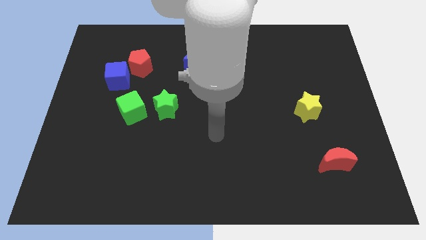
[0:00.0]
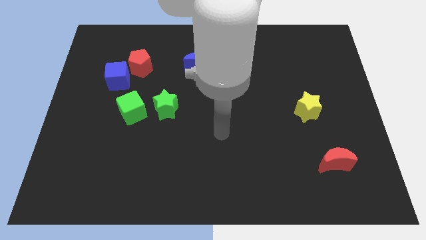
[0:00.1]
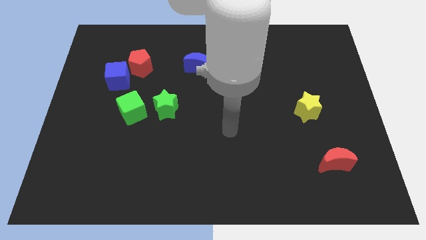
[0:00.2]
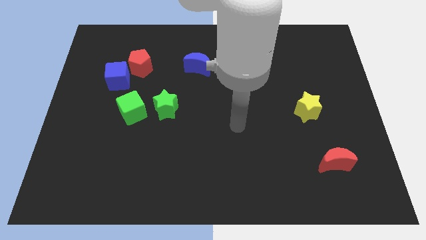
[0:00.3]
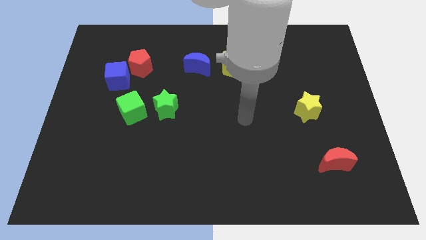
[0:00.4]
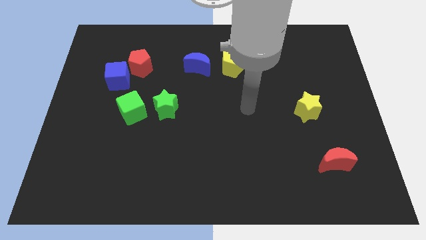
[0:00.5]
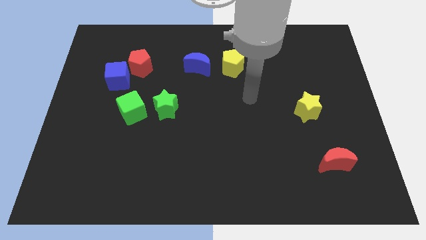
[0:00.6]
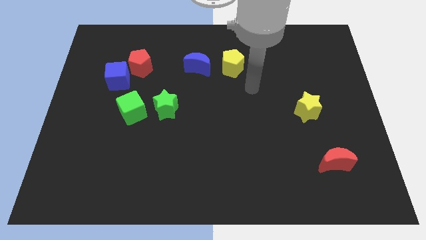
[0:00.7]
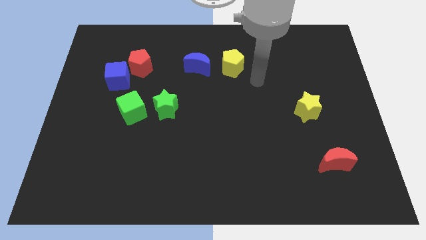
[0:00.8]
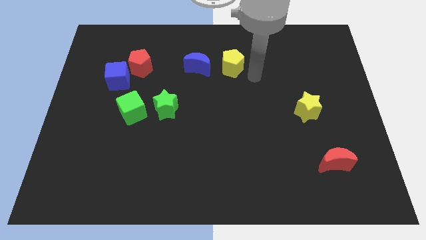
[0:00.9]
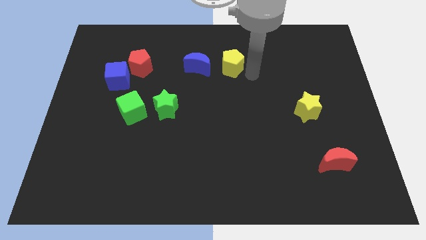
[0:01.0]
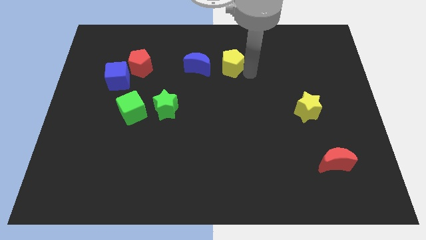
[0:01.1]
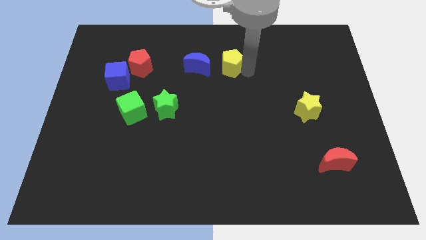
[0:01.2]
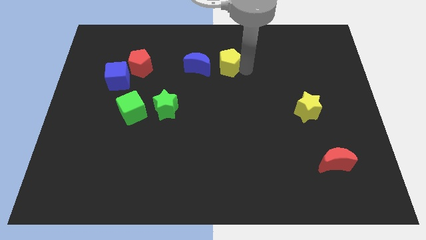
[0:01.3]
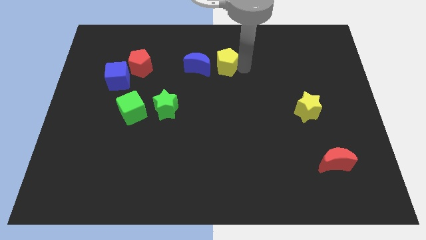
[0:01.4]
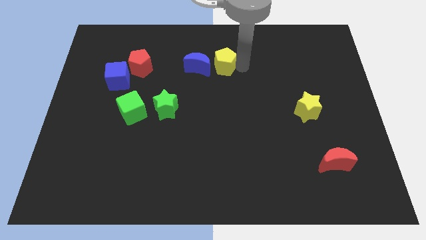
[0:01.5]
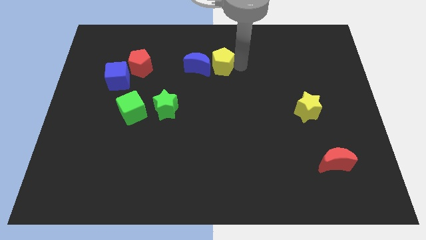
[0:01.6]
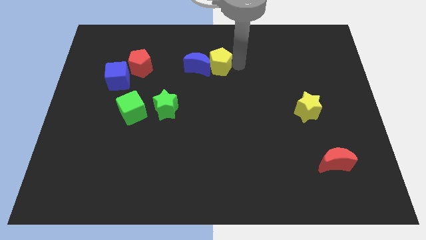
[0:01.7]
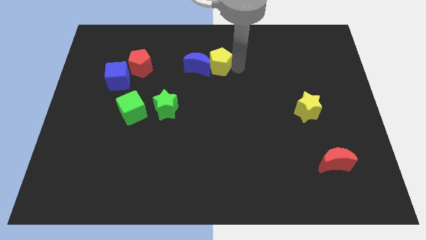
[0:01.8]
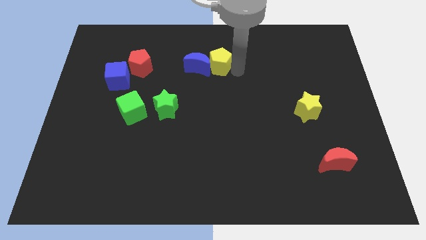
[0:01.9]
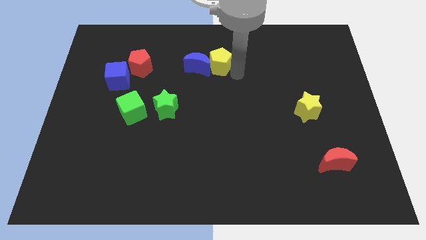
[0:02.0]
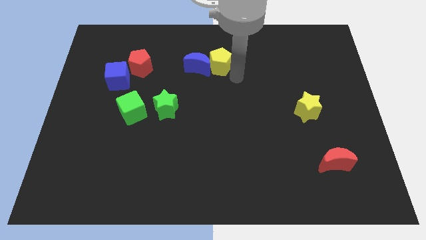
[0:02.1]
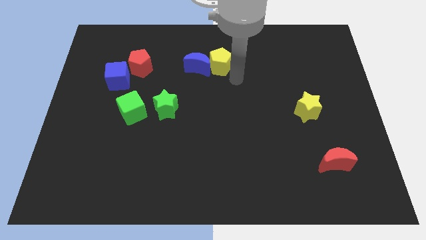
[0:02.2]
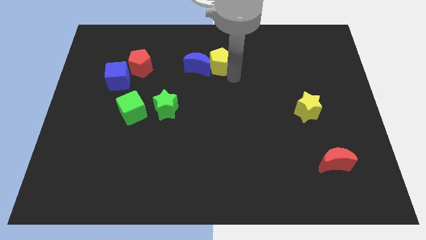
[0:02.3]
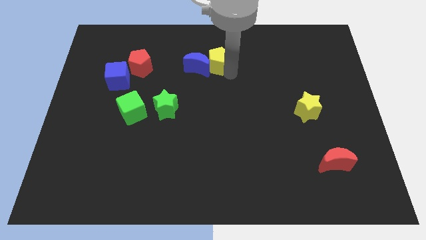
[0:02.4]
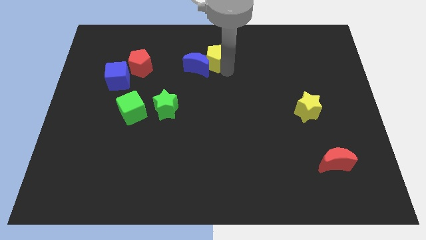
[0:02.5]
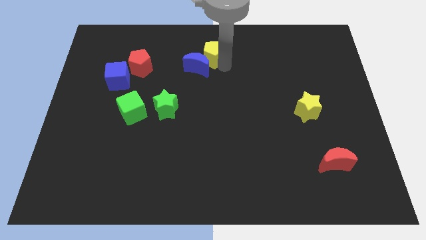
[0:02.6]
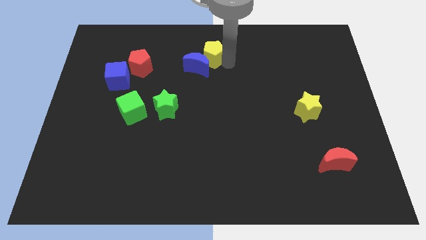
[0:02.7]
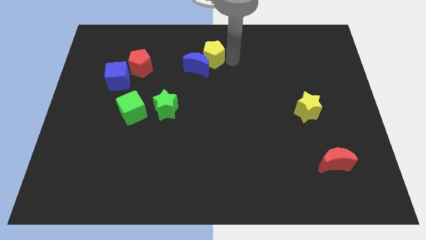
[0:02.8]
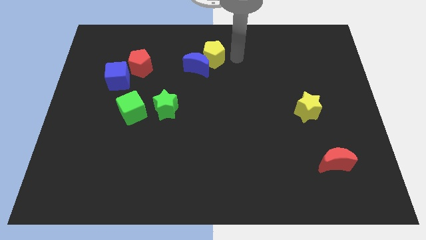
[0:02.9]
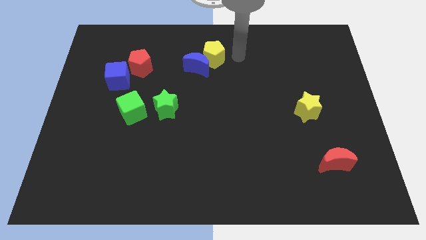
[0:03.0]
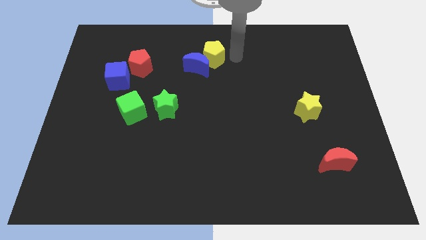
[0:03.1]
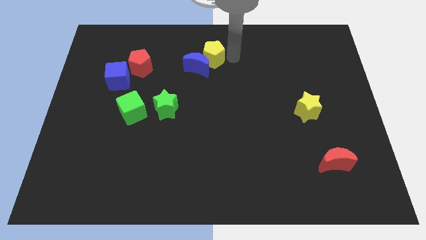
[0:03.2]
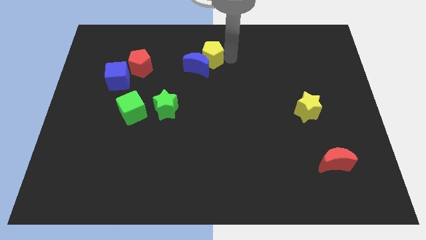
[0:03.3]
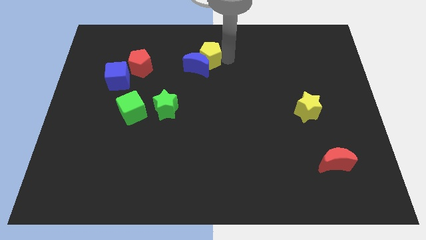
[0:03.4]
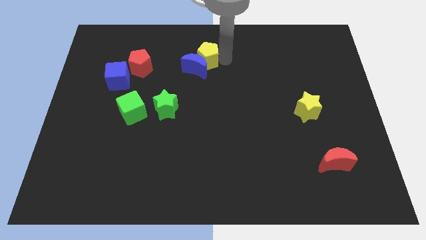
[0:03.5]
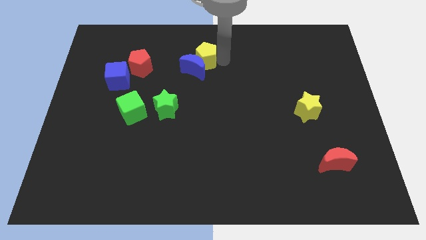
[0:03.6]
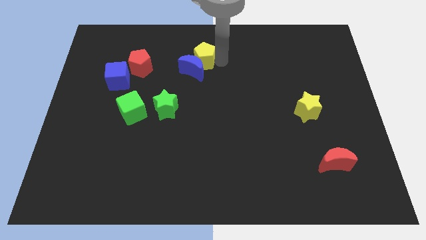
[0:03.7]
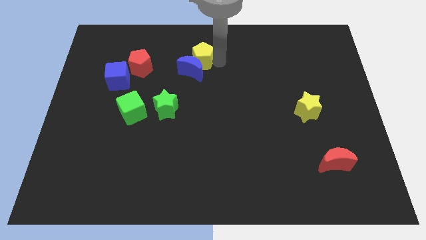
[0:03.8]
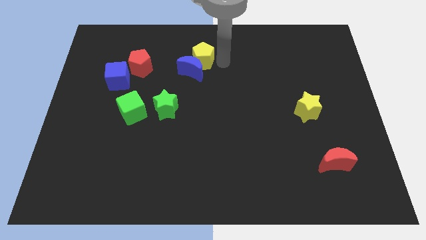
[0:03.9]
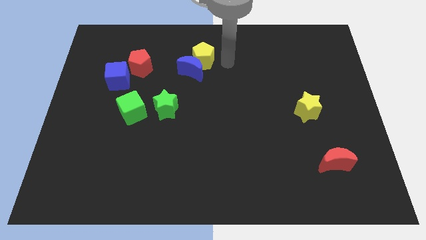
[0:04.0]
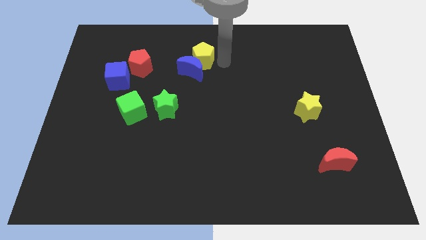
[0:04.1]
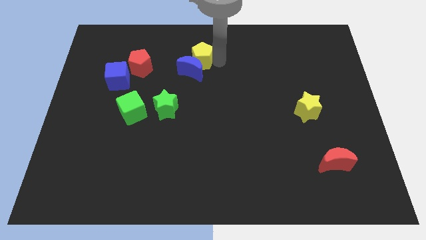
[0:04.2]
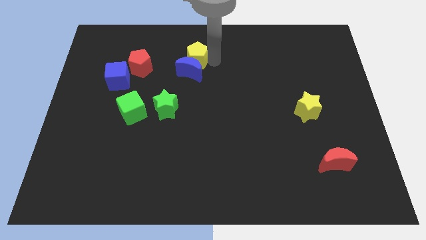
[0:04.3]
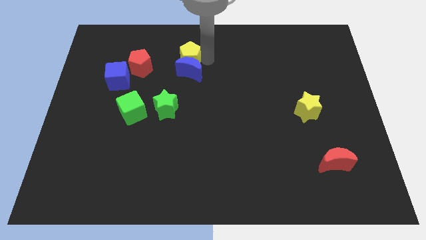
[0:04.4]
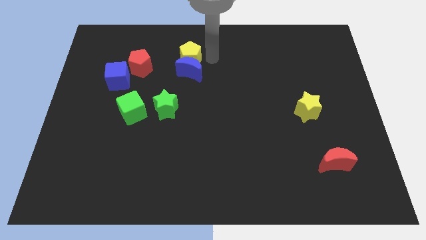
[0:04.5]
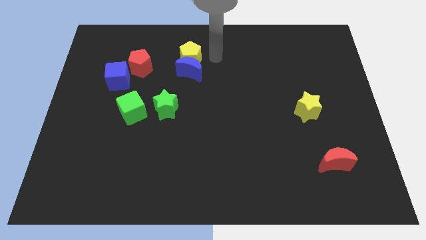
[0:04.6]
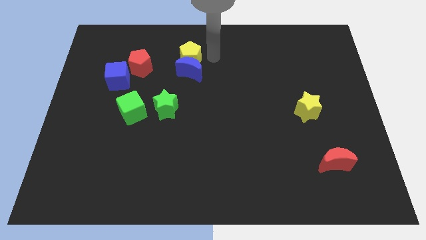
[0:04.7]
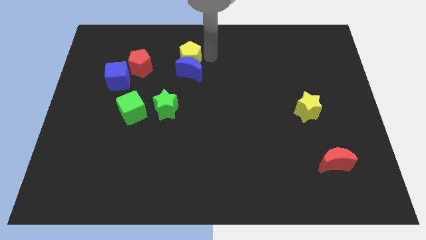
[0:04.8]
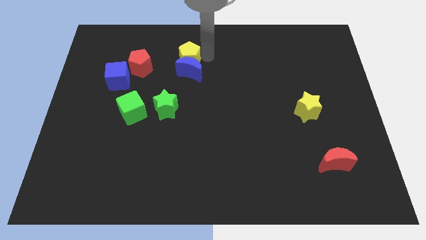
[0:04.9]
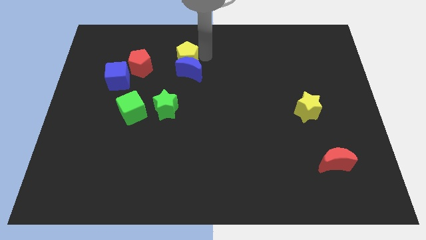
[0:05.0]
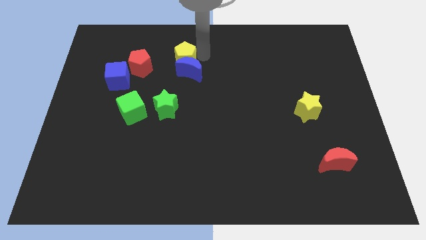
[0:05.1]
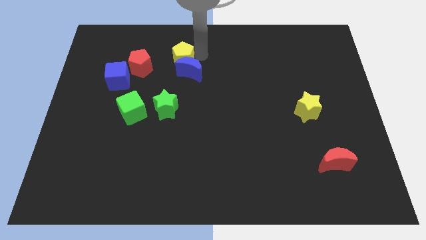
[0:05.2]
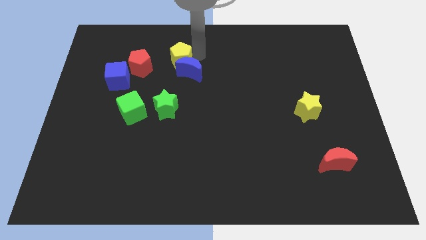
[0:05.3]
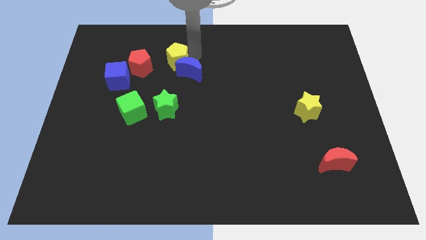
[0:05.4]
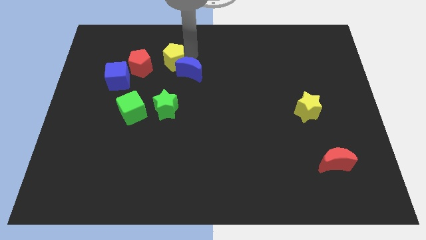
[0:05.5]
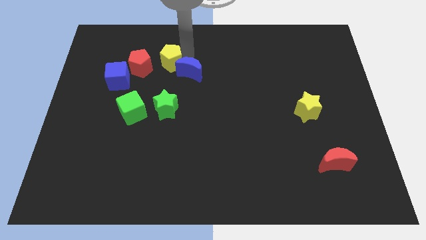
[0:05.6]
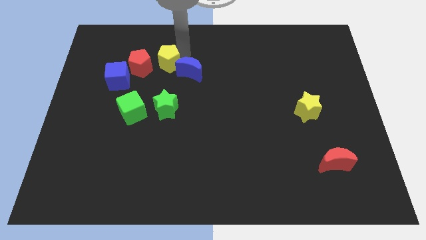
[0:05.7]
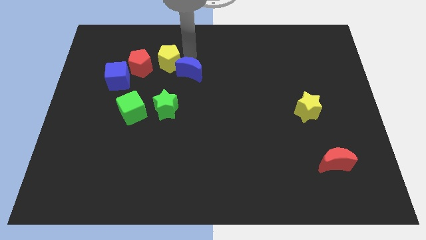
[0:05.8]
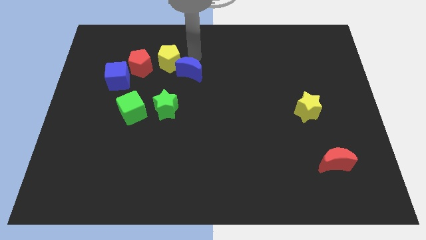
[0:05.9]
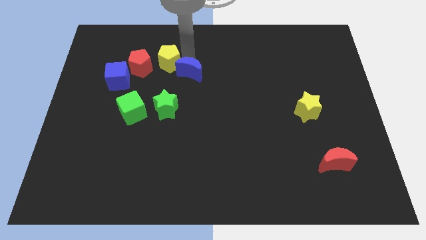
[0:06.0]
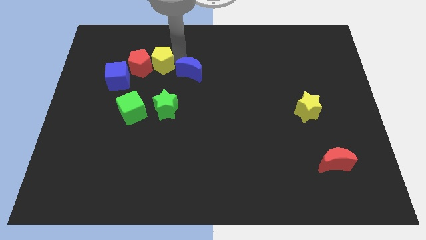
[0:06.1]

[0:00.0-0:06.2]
slide the yellow pentagon next to the red pentagon

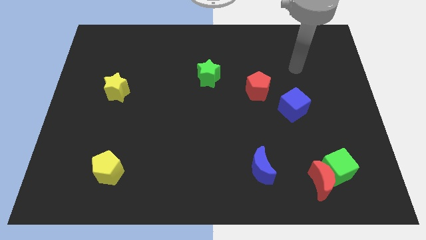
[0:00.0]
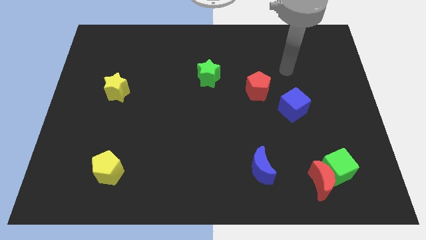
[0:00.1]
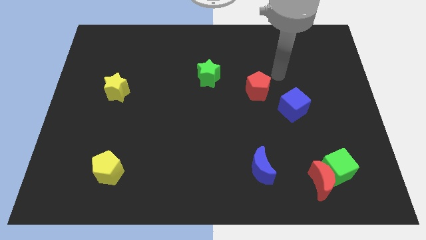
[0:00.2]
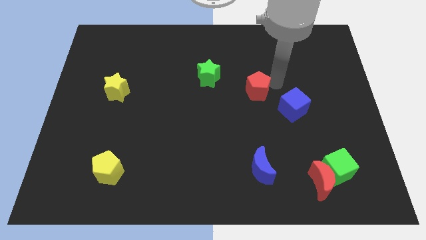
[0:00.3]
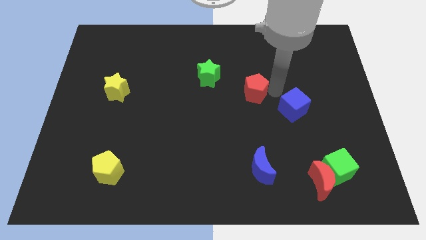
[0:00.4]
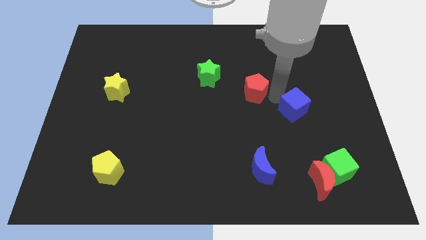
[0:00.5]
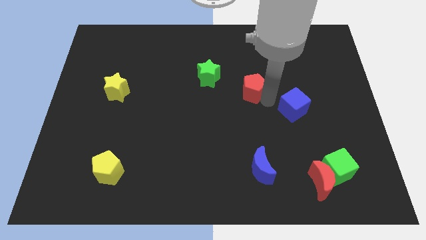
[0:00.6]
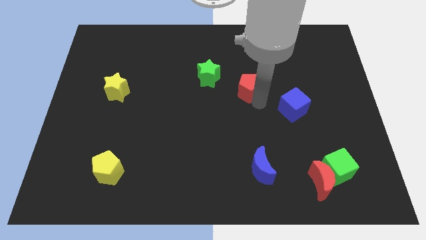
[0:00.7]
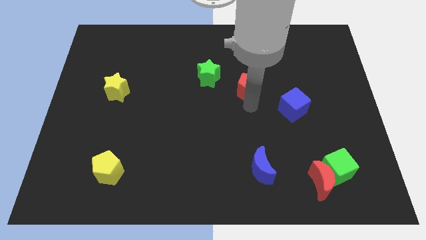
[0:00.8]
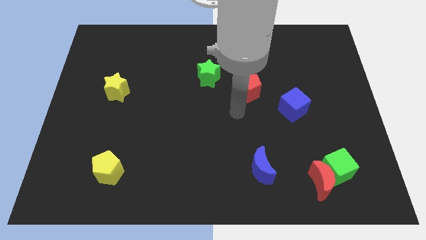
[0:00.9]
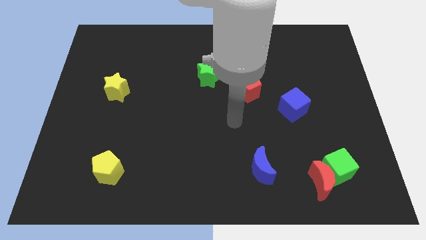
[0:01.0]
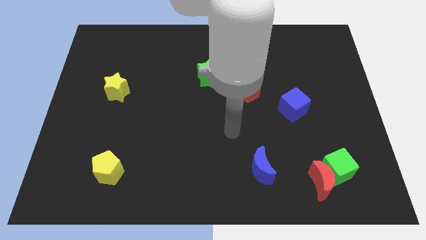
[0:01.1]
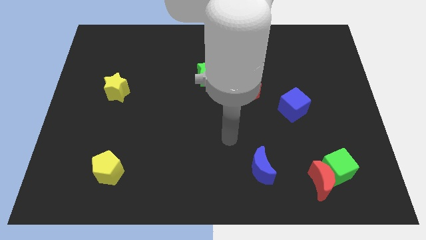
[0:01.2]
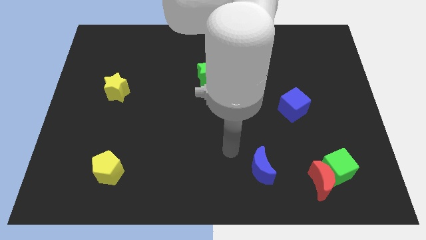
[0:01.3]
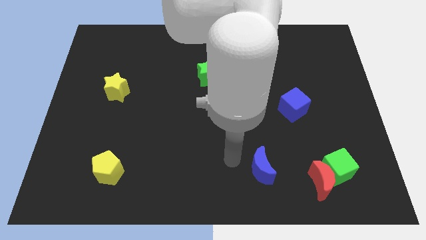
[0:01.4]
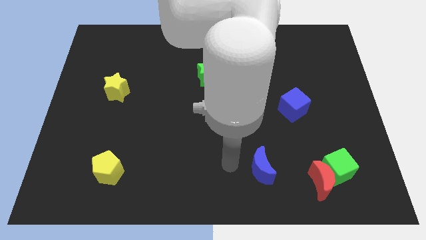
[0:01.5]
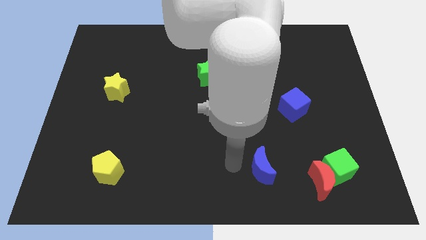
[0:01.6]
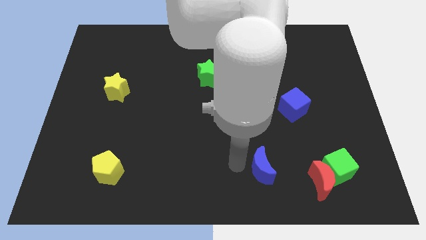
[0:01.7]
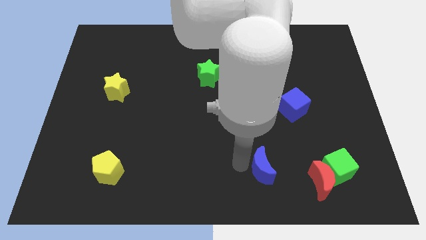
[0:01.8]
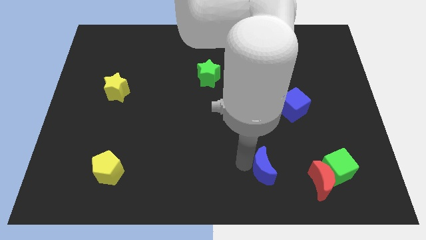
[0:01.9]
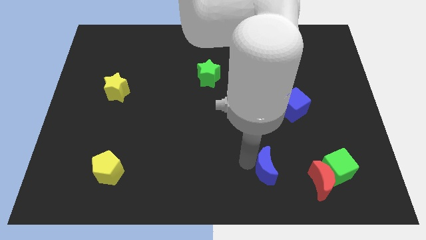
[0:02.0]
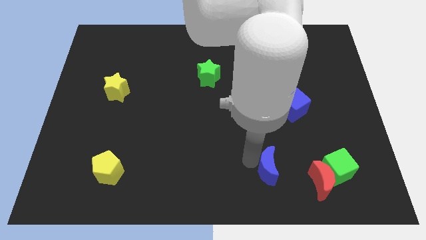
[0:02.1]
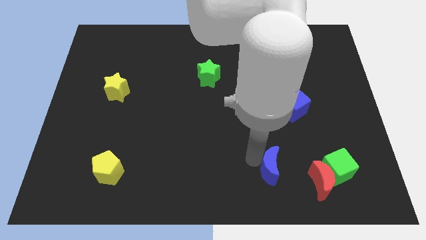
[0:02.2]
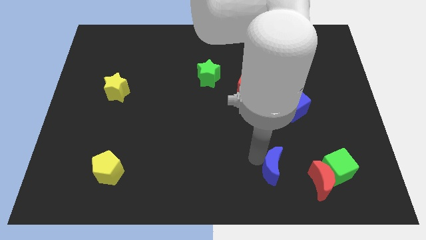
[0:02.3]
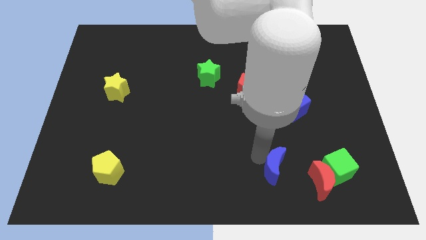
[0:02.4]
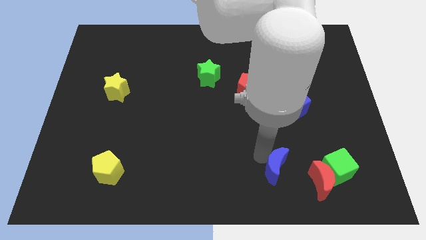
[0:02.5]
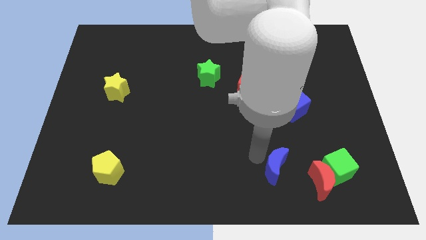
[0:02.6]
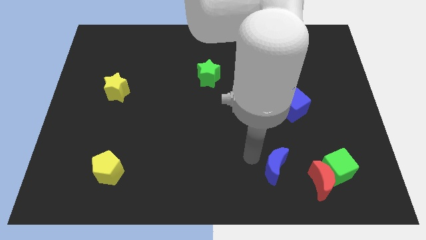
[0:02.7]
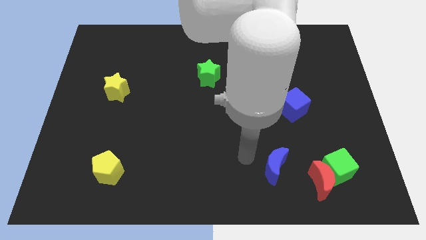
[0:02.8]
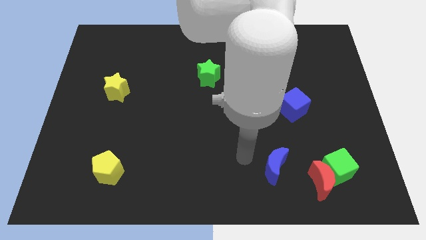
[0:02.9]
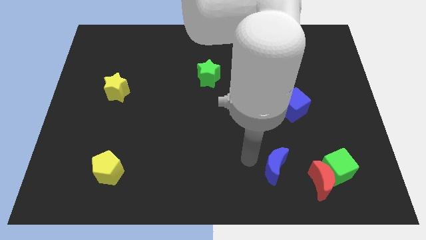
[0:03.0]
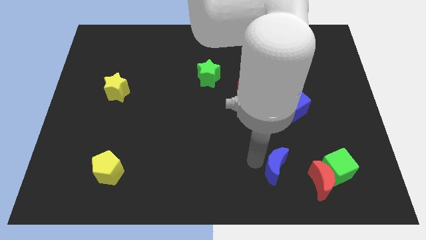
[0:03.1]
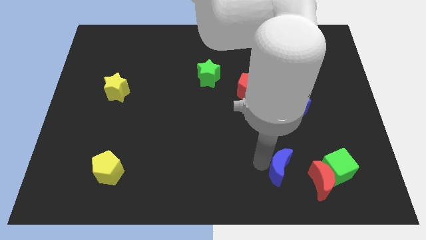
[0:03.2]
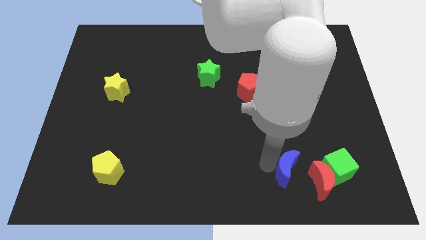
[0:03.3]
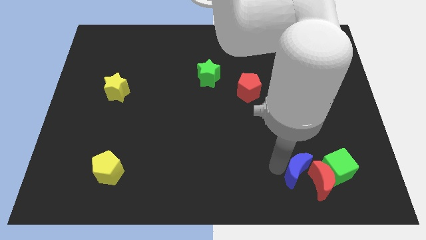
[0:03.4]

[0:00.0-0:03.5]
move the blue moon next to the red moon
